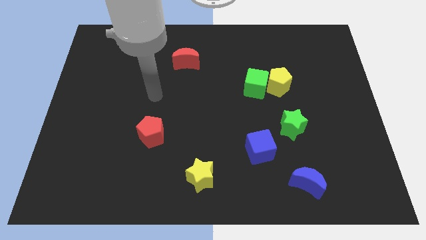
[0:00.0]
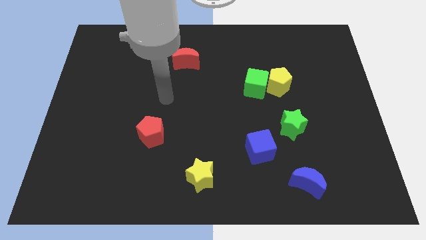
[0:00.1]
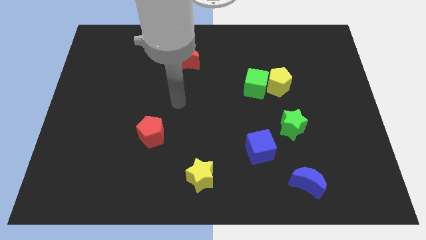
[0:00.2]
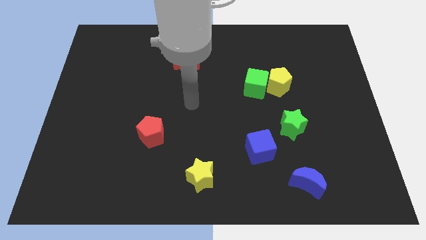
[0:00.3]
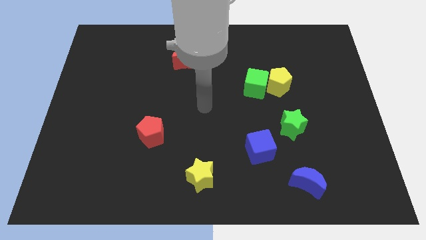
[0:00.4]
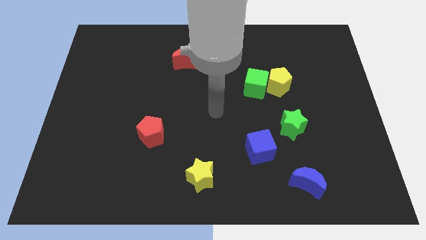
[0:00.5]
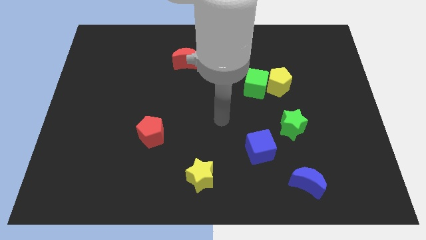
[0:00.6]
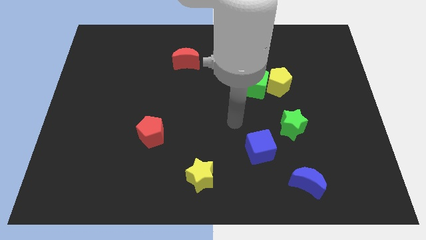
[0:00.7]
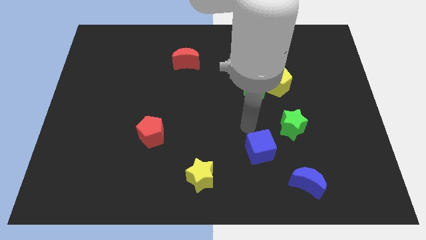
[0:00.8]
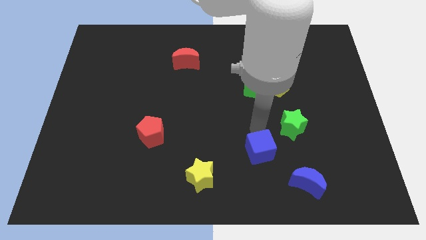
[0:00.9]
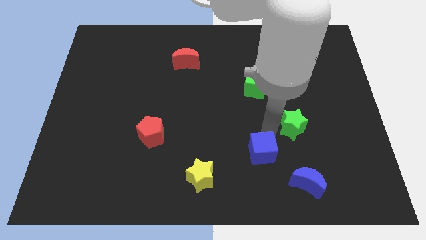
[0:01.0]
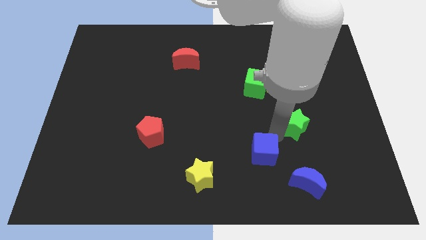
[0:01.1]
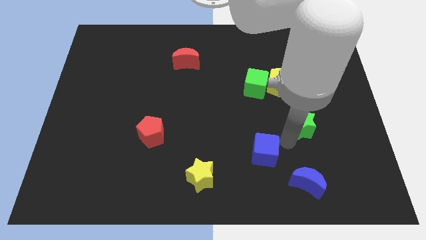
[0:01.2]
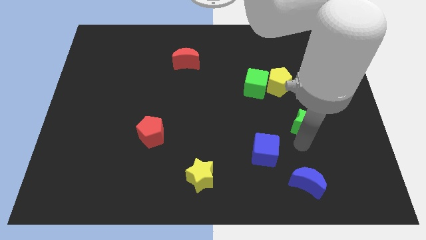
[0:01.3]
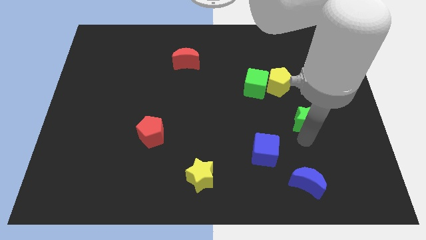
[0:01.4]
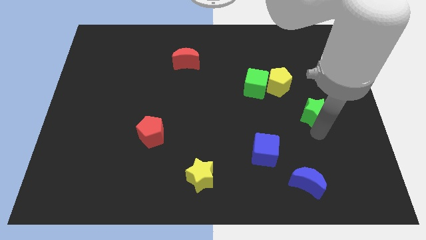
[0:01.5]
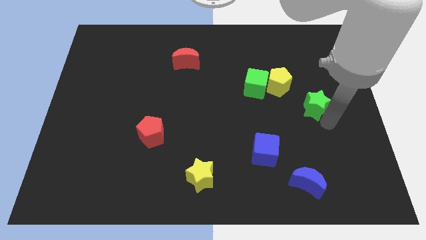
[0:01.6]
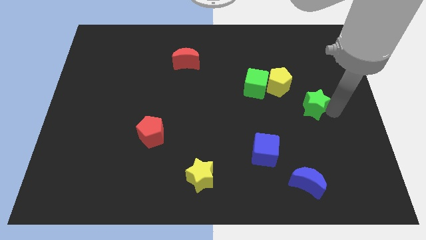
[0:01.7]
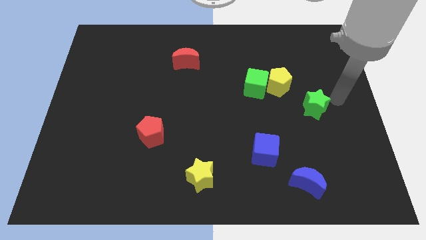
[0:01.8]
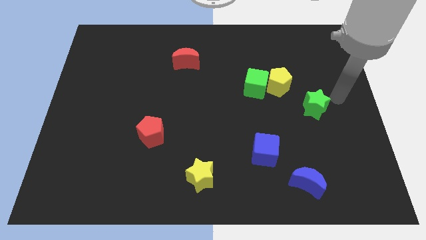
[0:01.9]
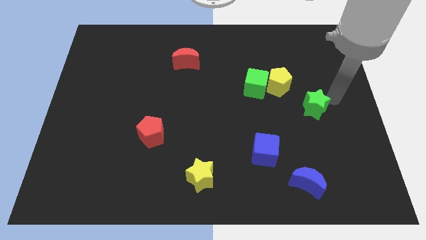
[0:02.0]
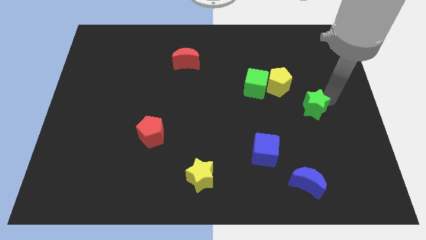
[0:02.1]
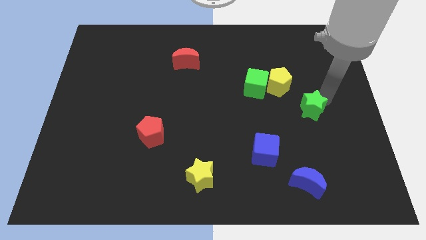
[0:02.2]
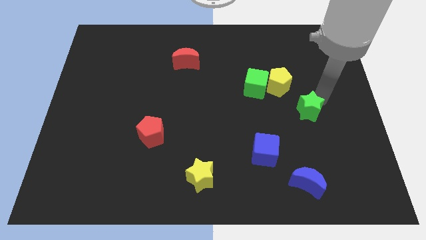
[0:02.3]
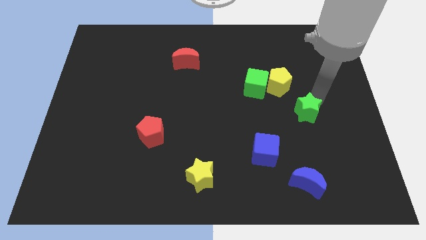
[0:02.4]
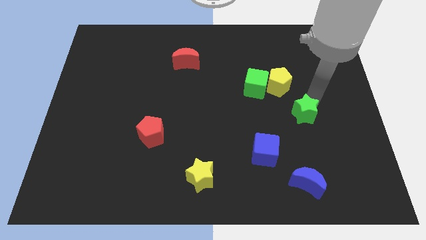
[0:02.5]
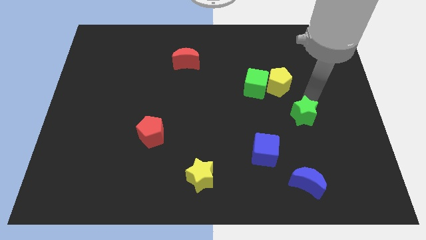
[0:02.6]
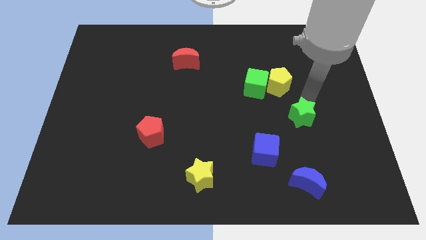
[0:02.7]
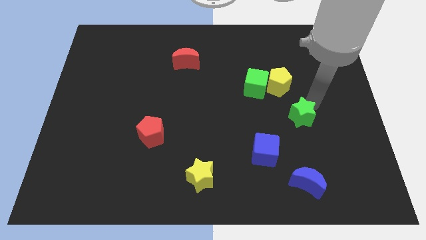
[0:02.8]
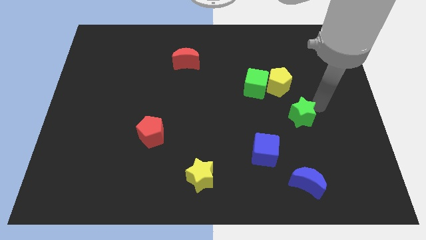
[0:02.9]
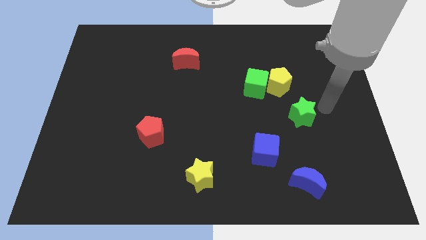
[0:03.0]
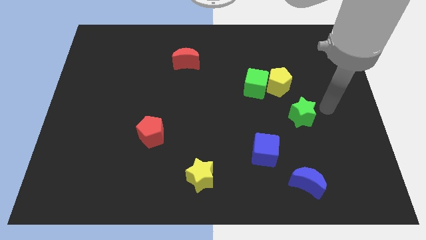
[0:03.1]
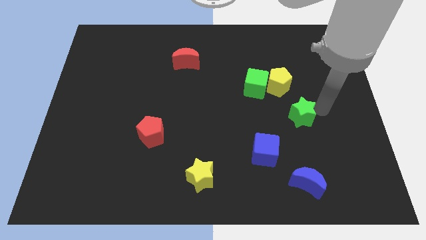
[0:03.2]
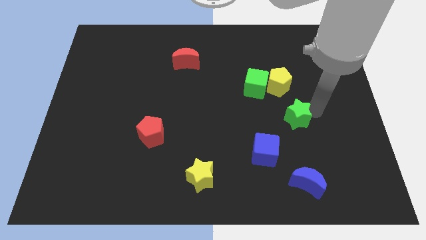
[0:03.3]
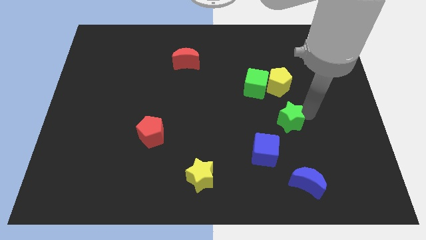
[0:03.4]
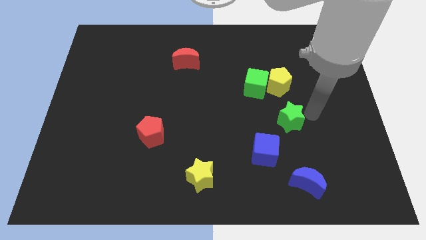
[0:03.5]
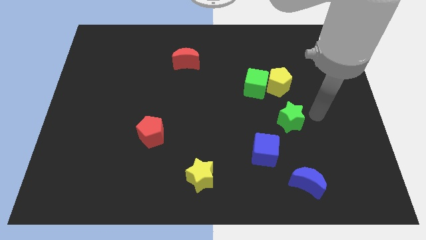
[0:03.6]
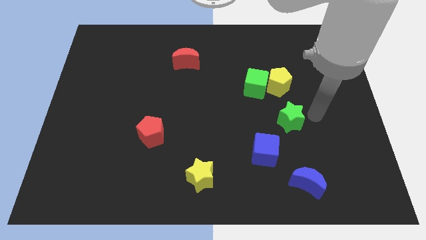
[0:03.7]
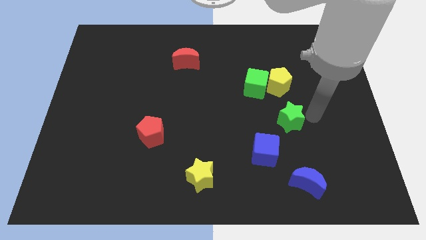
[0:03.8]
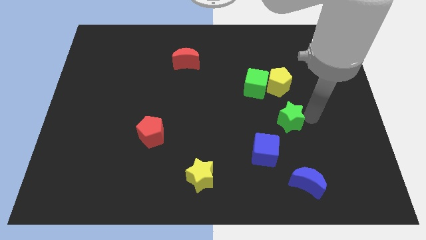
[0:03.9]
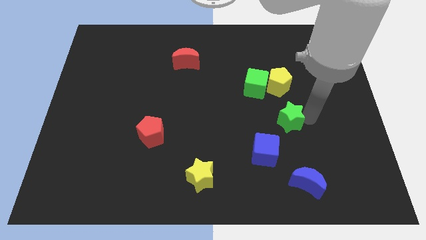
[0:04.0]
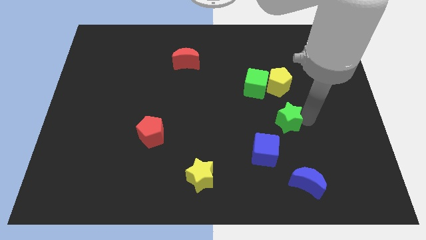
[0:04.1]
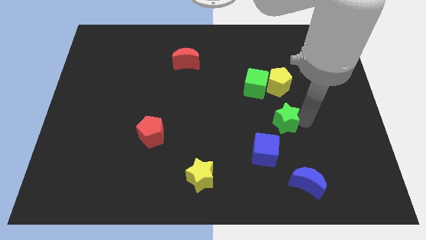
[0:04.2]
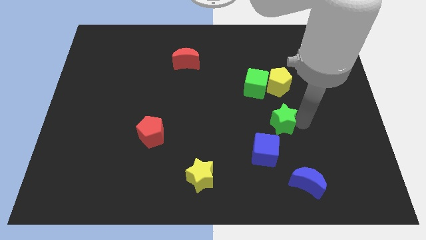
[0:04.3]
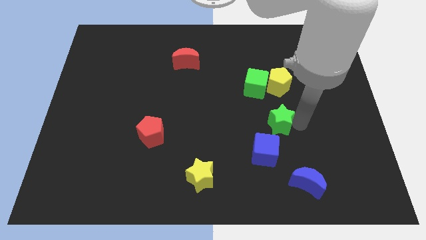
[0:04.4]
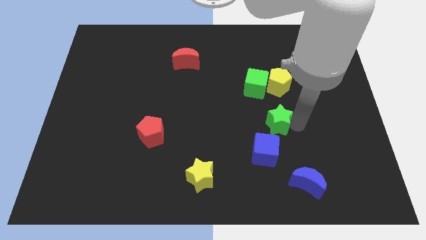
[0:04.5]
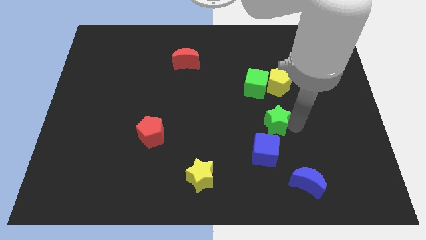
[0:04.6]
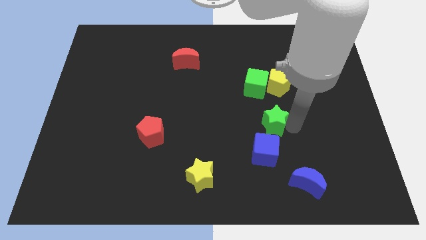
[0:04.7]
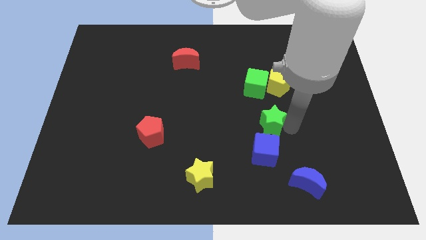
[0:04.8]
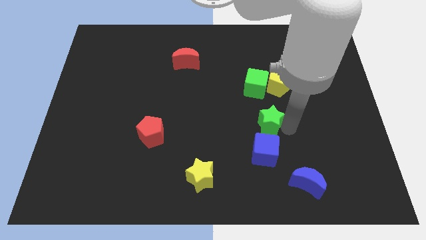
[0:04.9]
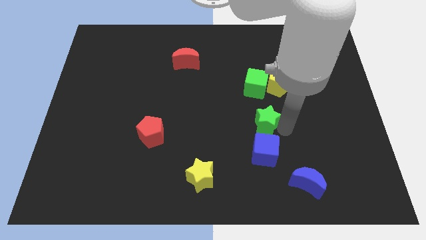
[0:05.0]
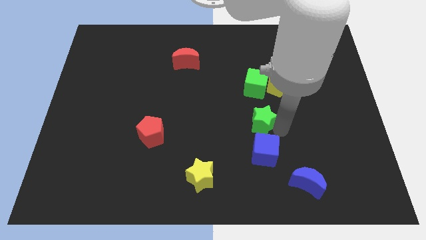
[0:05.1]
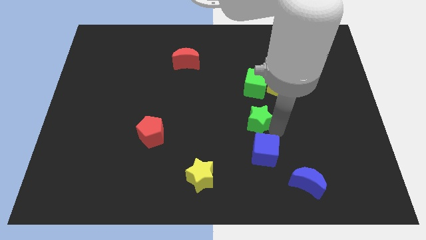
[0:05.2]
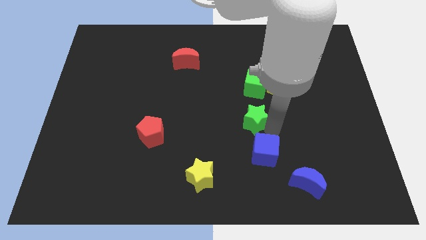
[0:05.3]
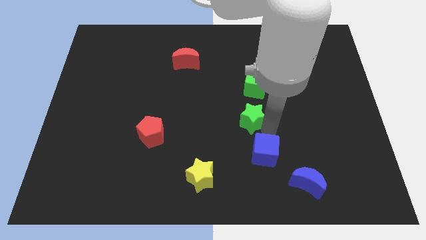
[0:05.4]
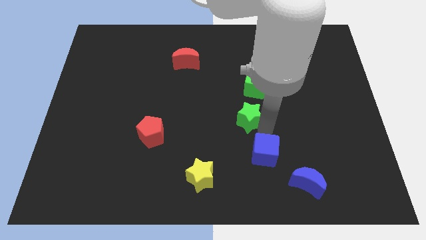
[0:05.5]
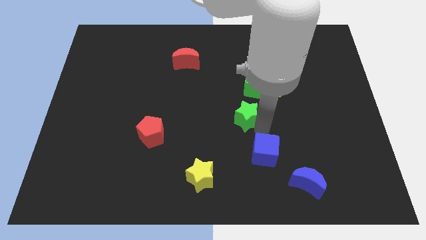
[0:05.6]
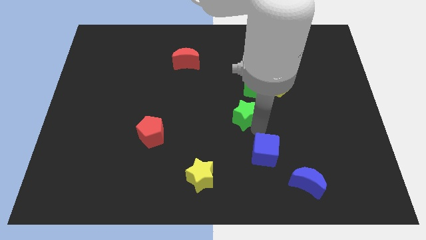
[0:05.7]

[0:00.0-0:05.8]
push the green star to the bottom left of the green cube

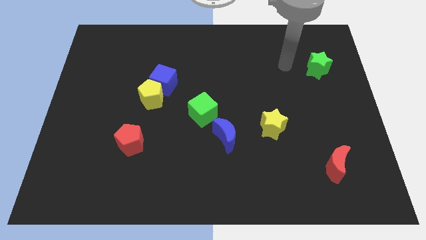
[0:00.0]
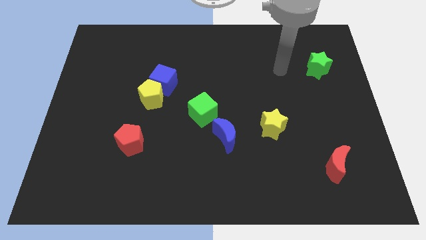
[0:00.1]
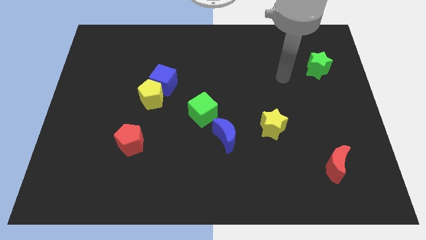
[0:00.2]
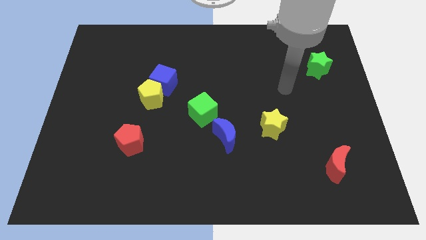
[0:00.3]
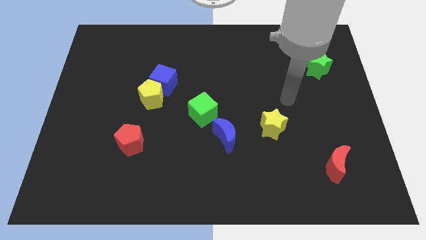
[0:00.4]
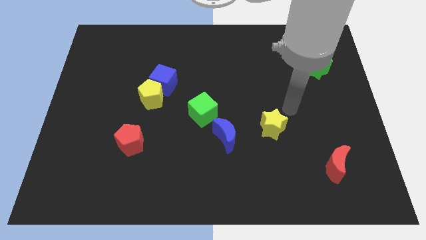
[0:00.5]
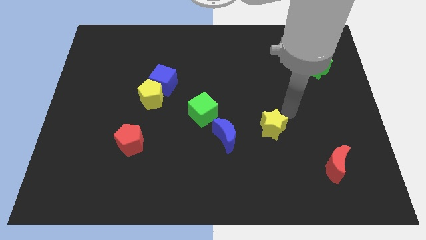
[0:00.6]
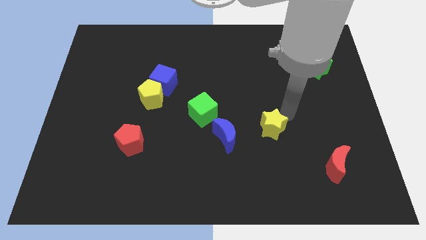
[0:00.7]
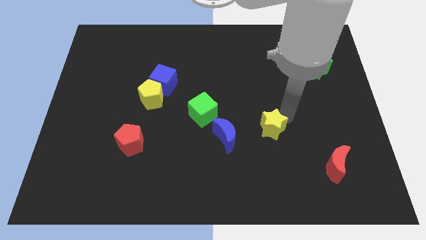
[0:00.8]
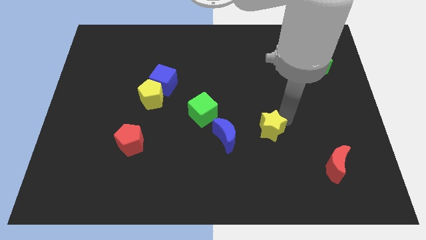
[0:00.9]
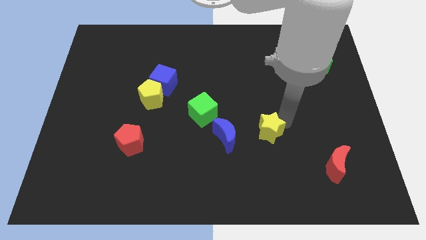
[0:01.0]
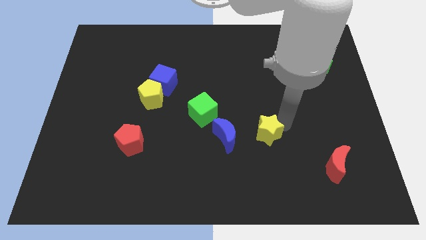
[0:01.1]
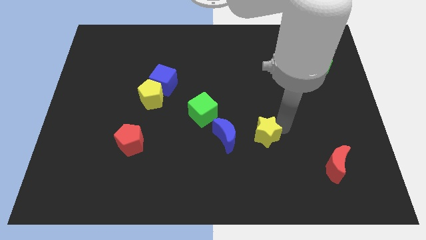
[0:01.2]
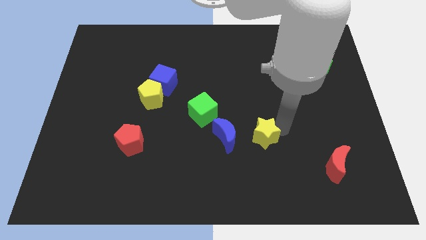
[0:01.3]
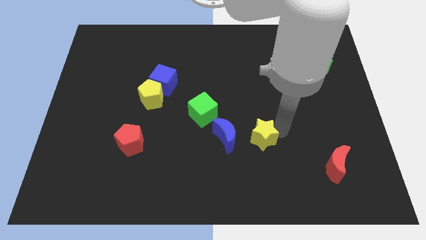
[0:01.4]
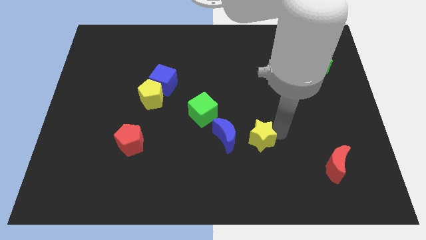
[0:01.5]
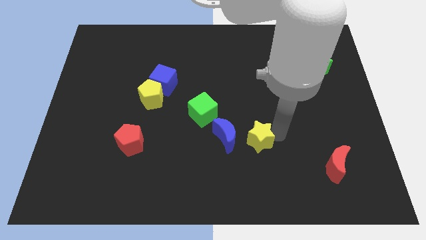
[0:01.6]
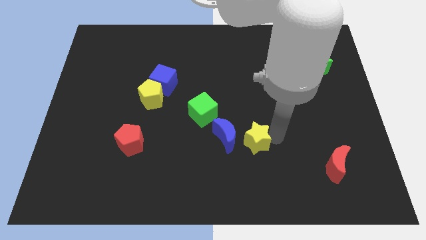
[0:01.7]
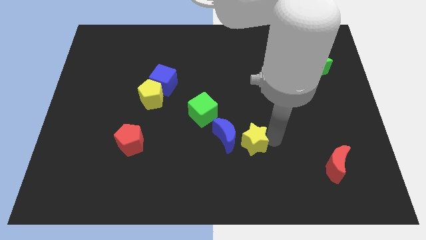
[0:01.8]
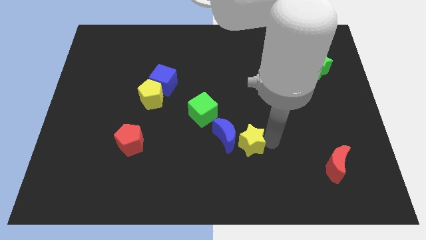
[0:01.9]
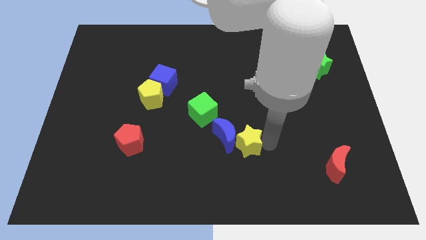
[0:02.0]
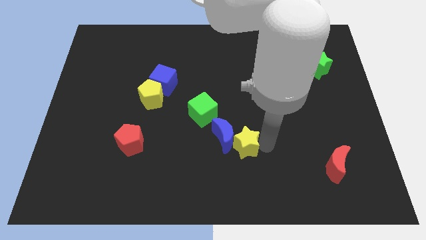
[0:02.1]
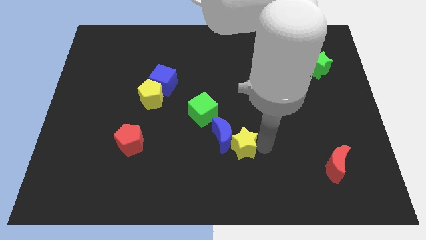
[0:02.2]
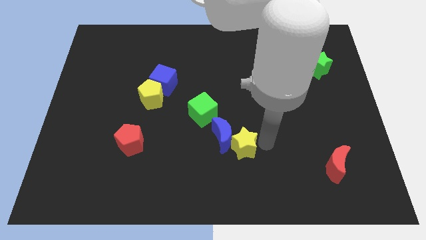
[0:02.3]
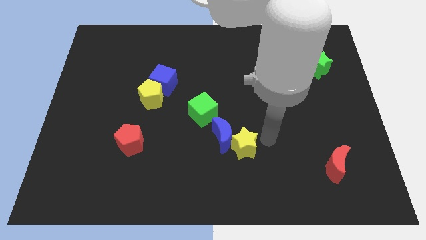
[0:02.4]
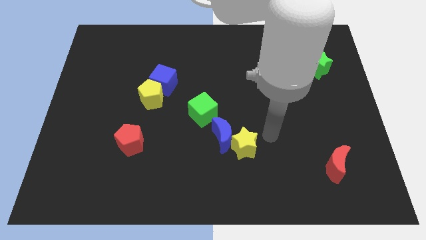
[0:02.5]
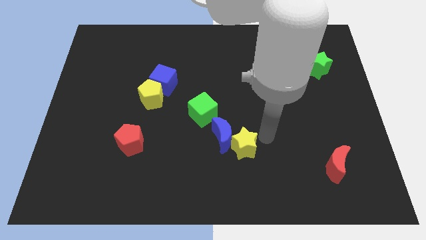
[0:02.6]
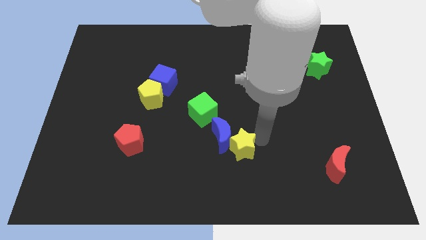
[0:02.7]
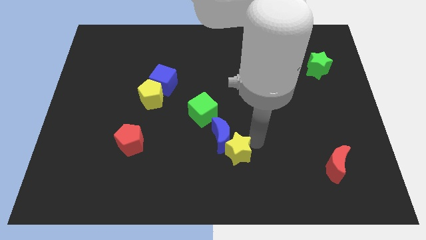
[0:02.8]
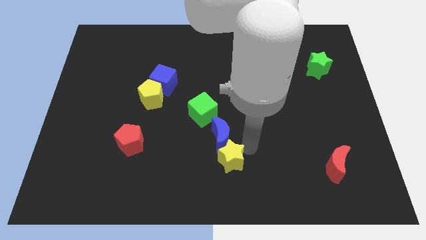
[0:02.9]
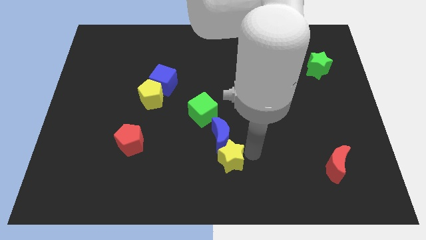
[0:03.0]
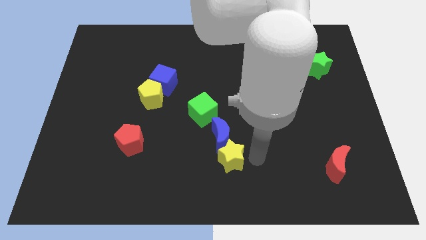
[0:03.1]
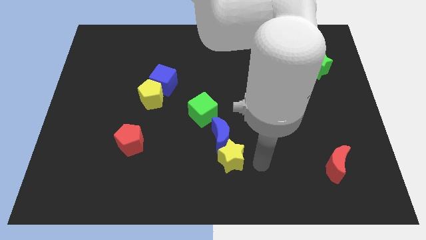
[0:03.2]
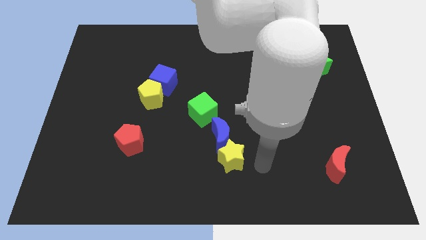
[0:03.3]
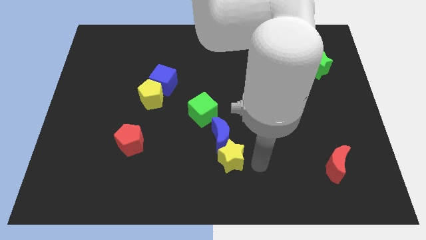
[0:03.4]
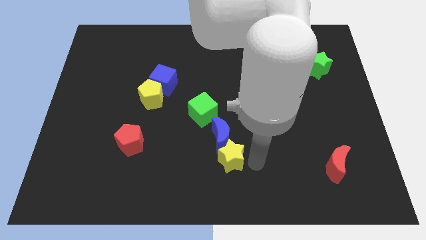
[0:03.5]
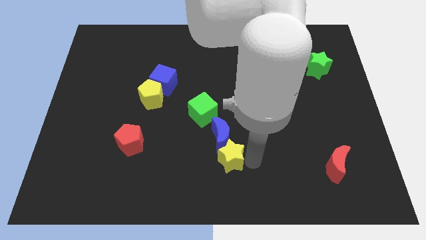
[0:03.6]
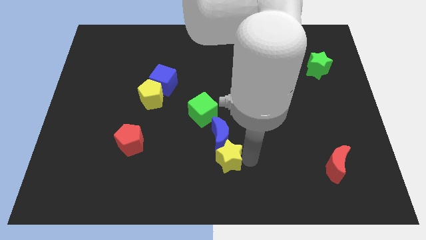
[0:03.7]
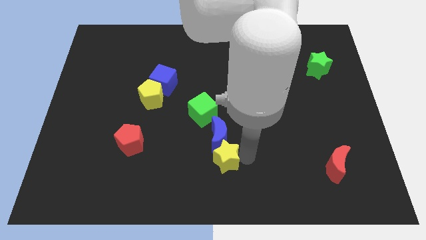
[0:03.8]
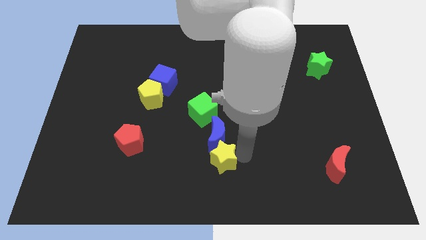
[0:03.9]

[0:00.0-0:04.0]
move the yellow star to the bottom side of the green cube
